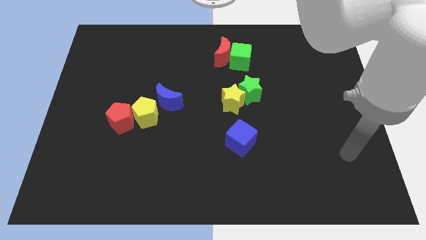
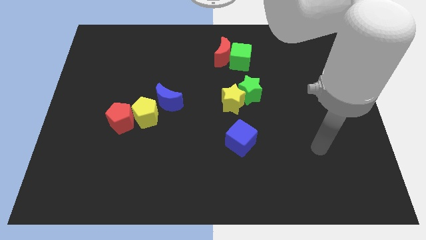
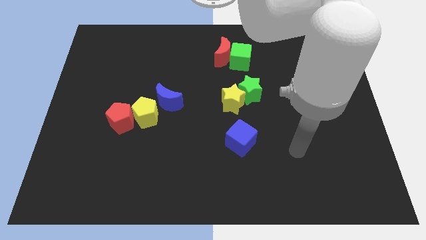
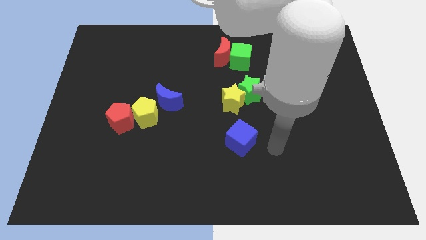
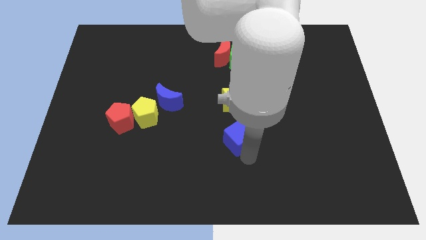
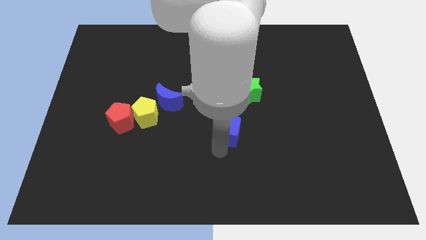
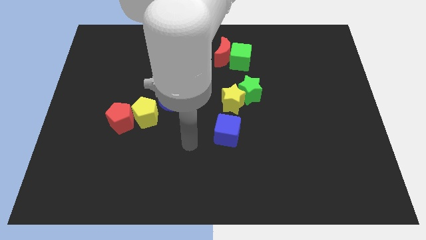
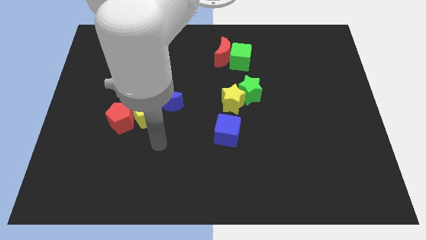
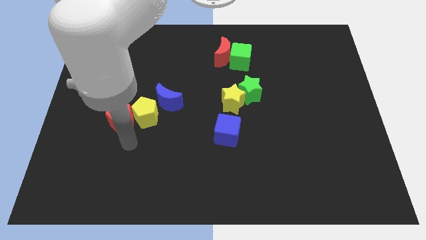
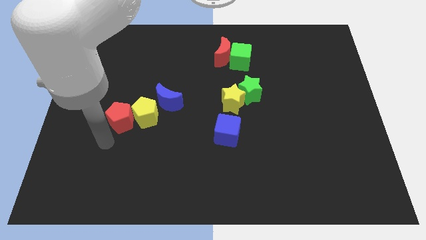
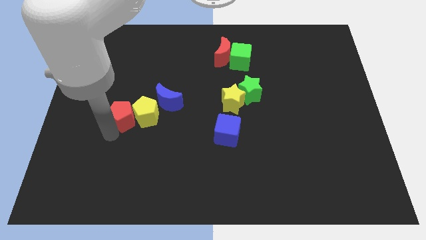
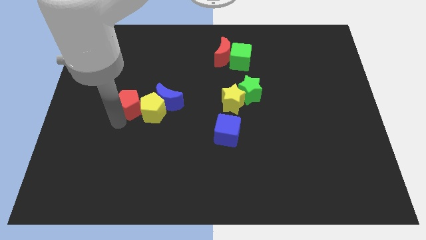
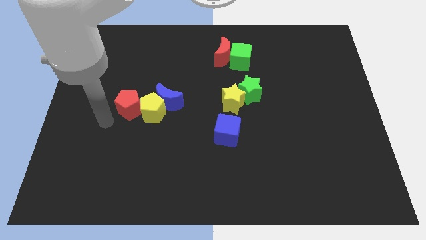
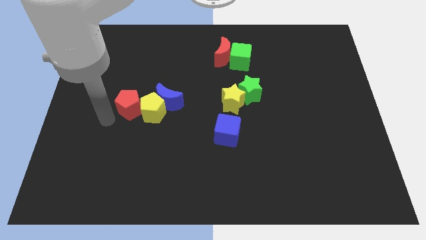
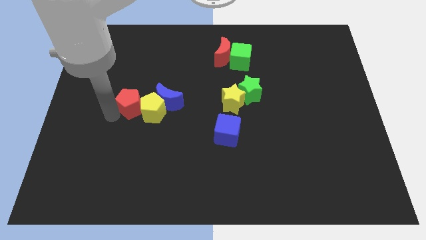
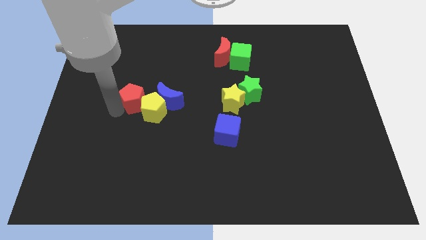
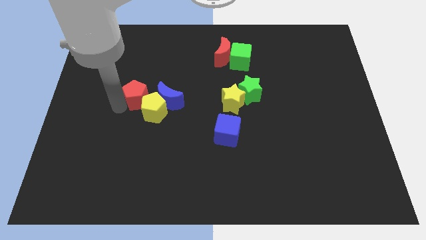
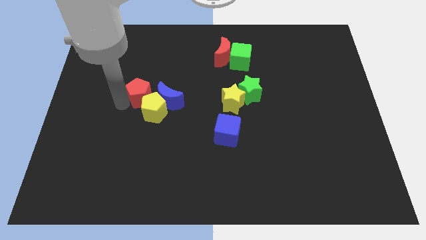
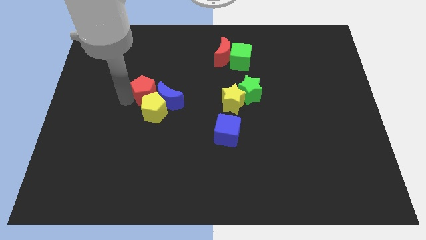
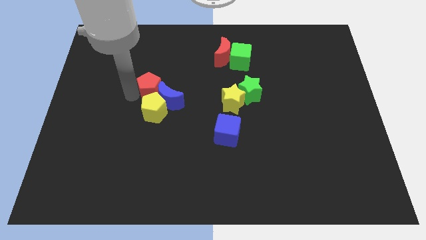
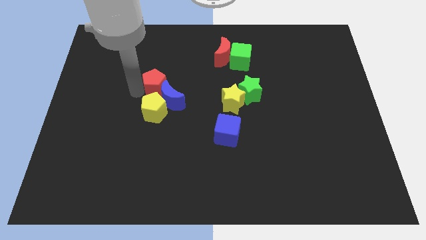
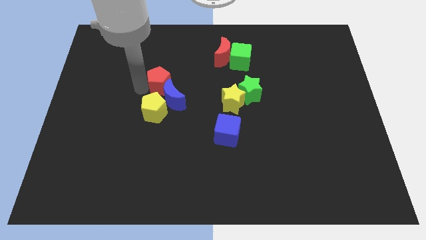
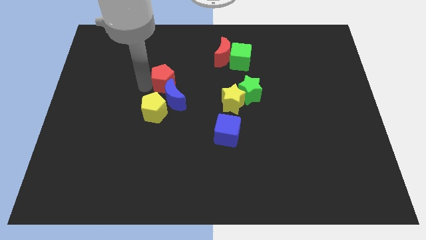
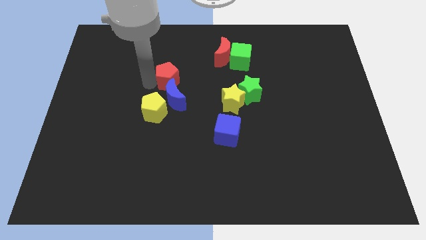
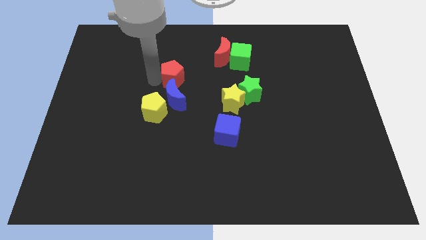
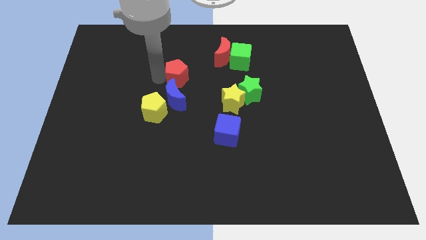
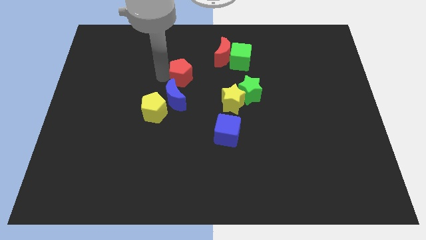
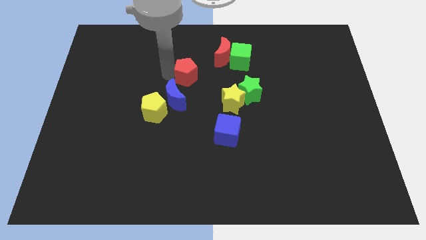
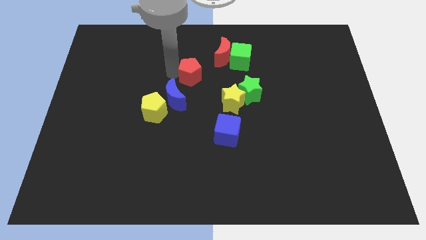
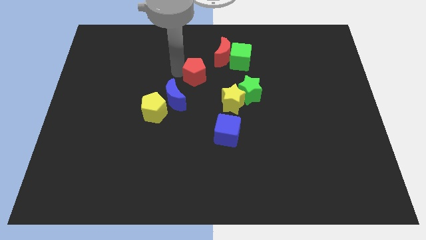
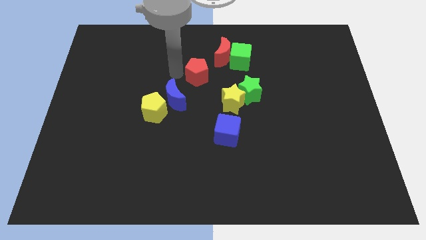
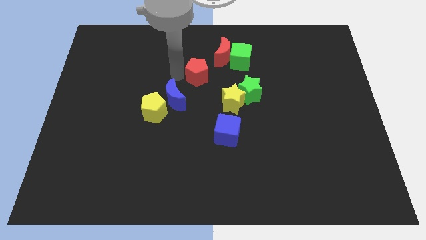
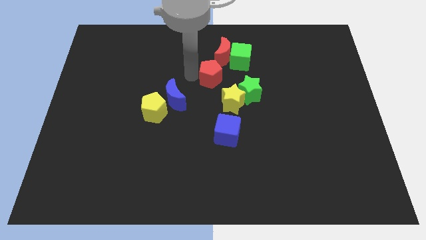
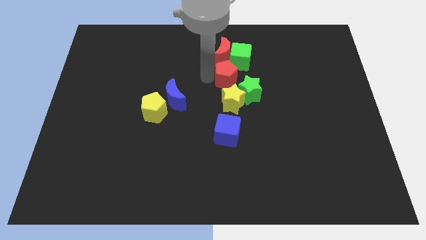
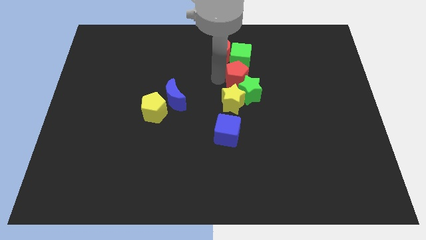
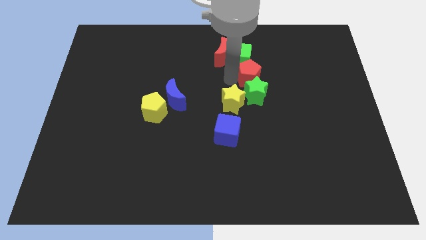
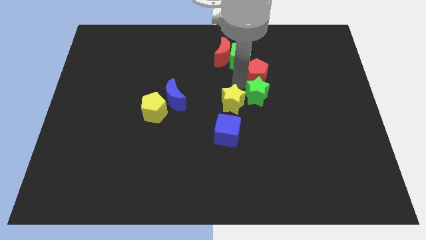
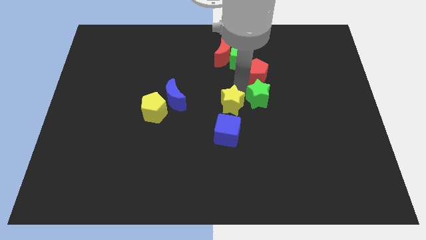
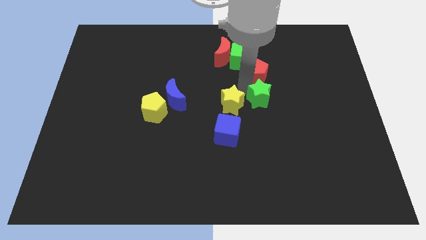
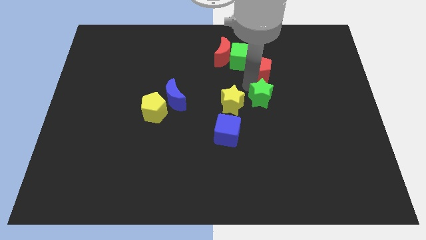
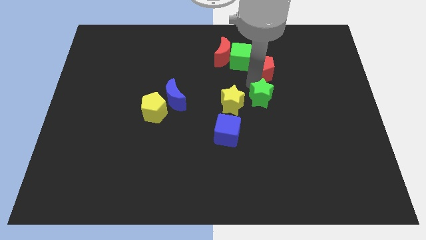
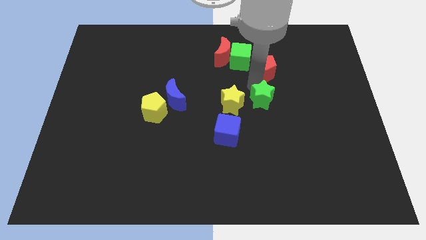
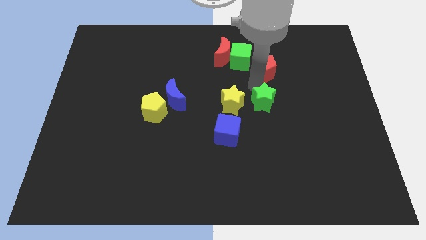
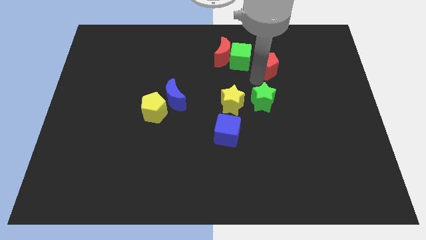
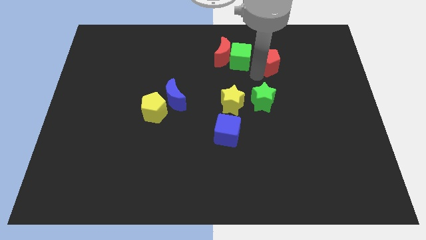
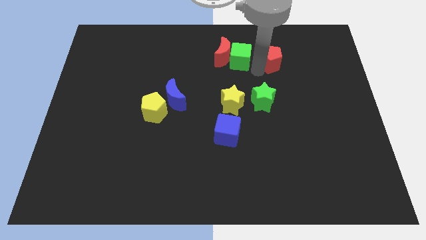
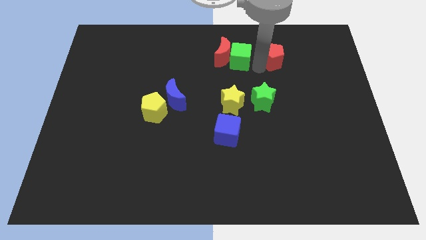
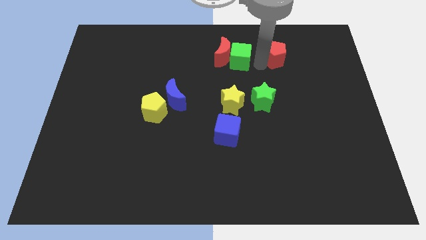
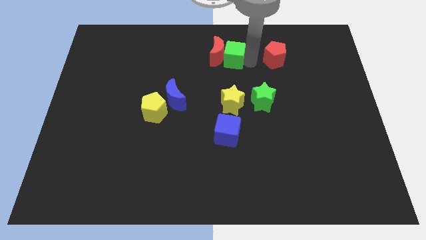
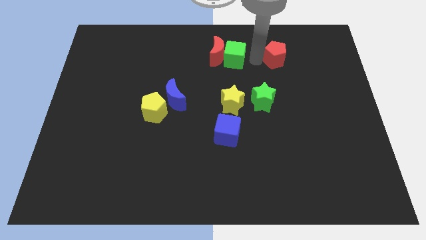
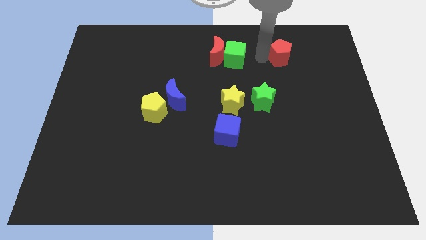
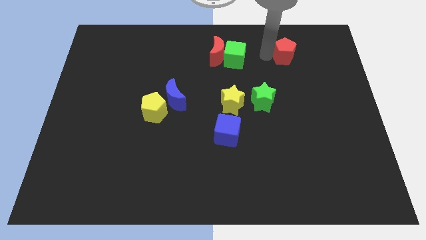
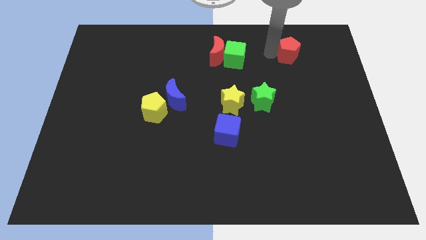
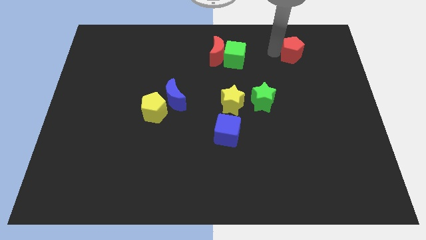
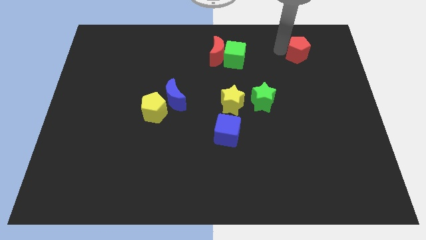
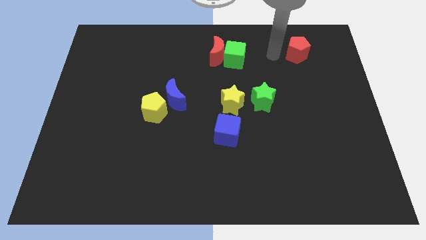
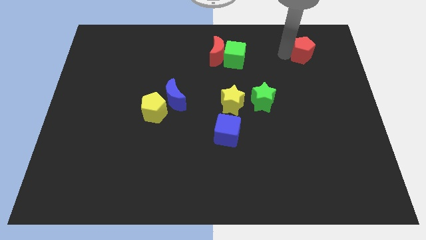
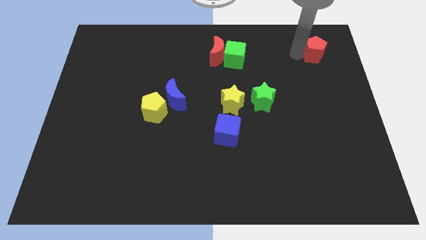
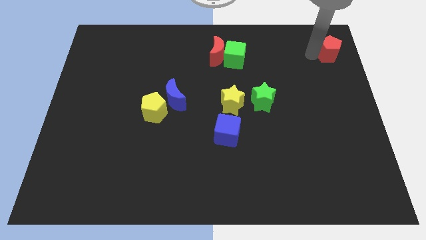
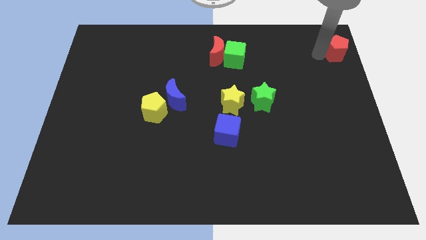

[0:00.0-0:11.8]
move the red pentagon to the top right

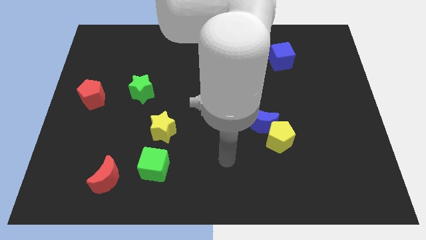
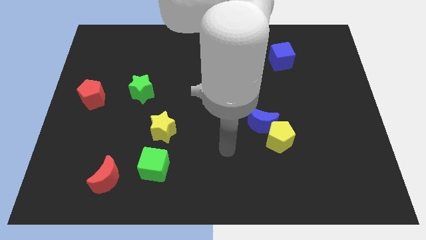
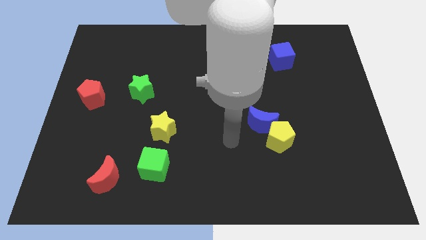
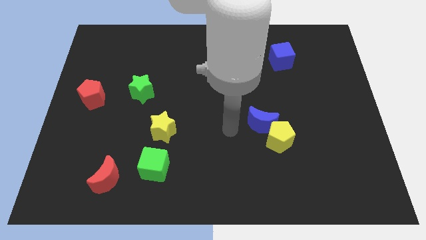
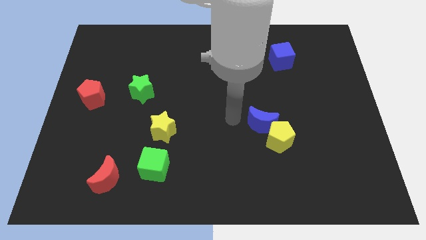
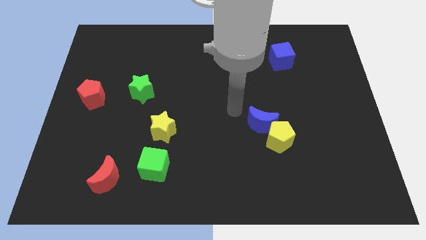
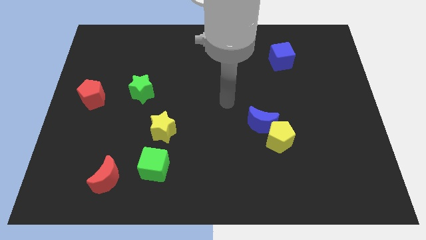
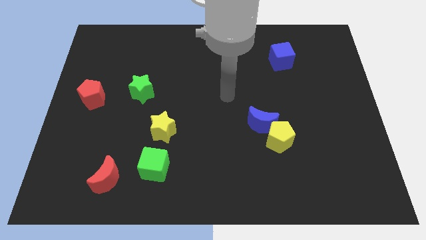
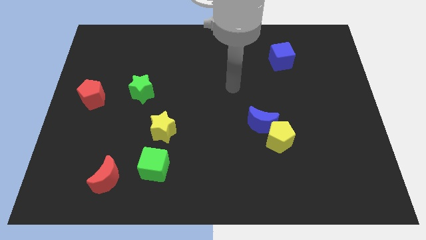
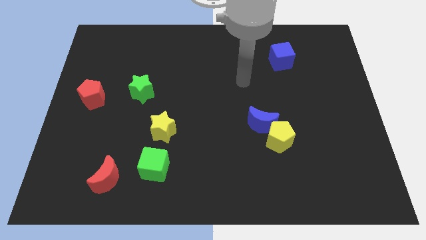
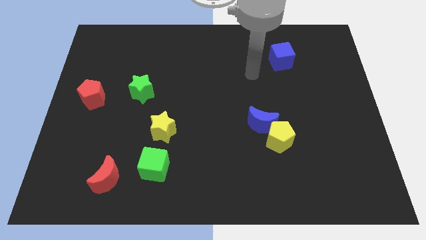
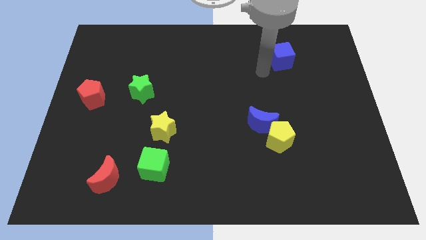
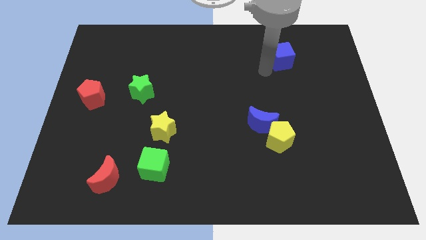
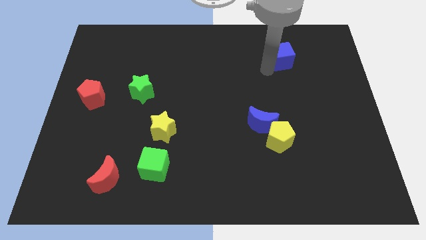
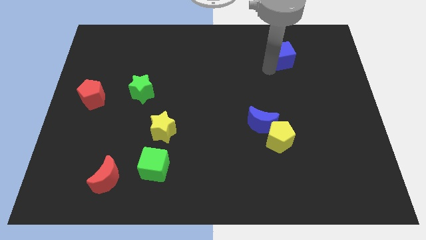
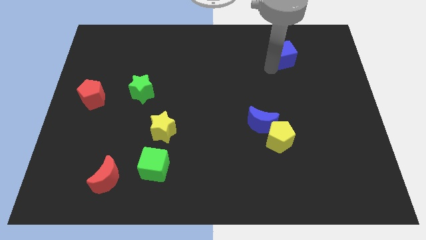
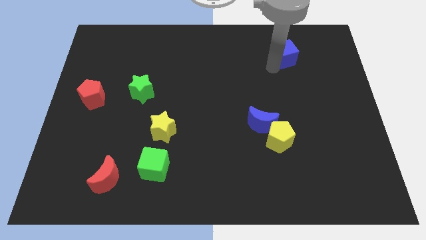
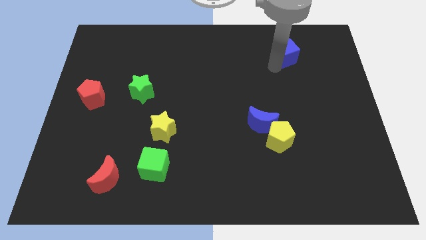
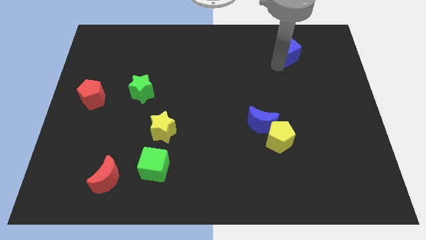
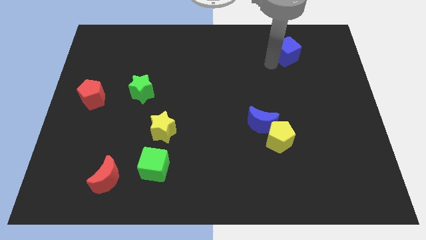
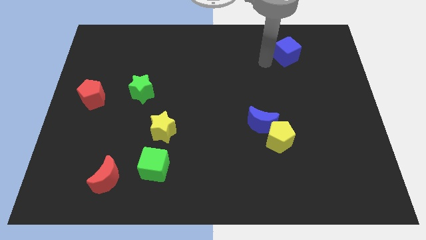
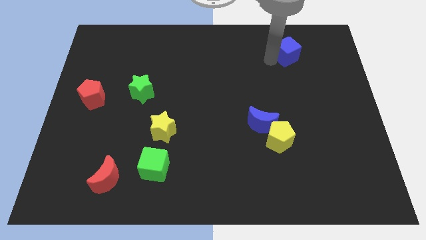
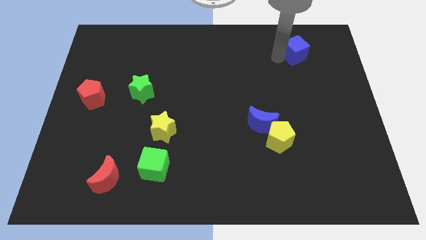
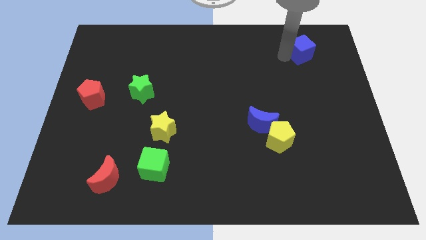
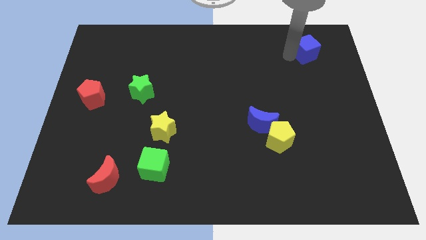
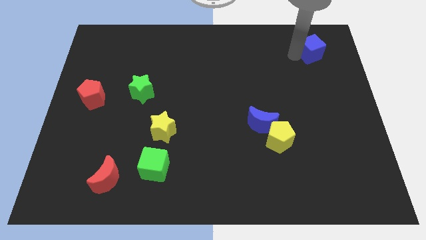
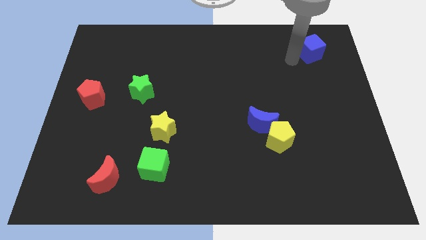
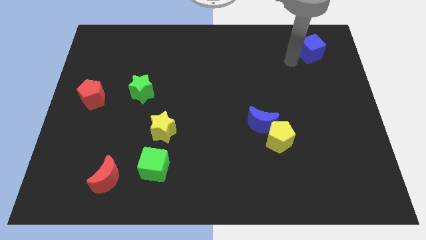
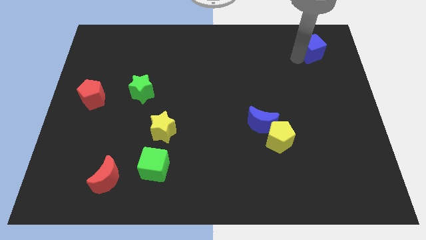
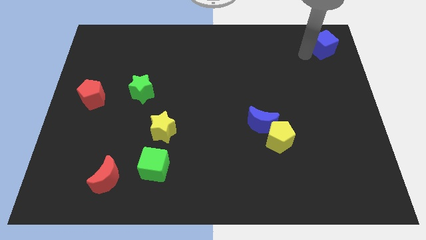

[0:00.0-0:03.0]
push the blue cube to the upper right corner
